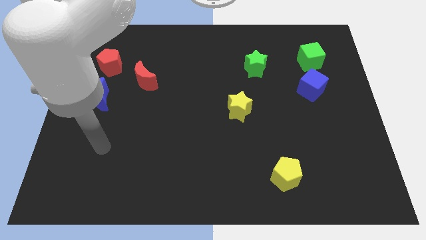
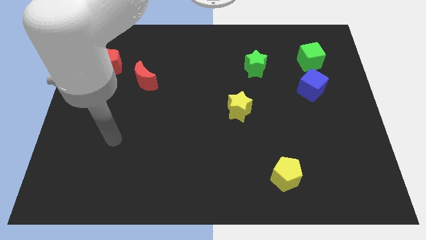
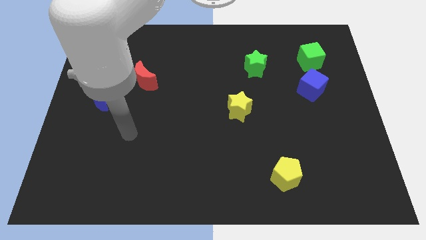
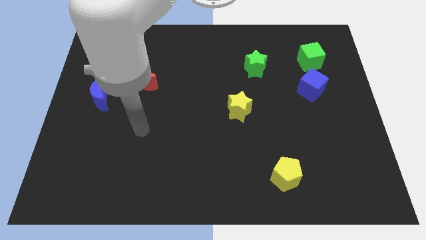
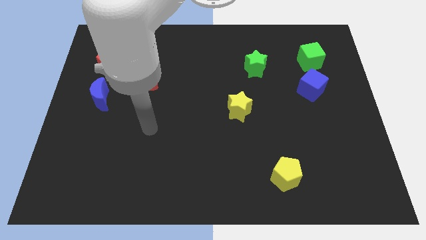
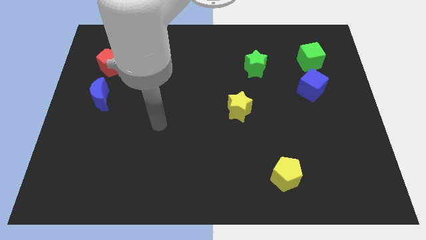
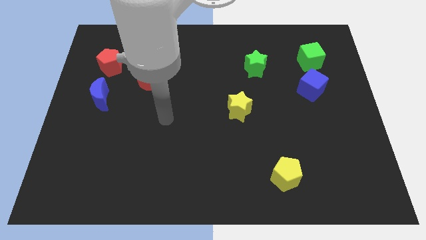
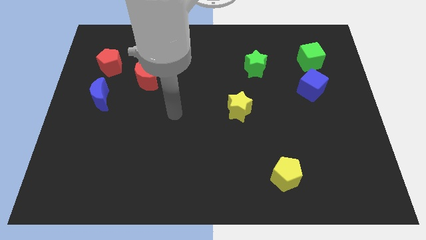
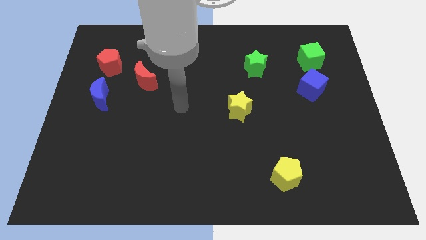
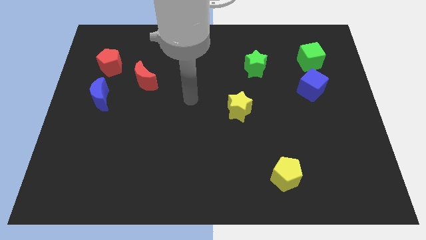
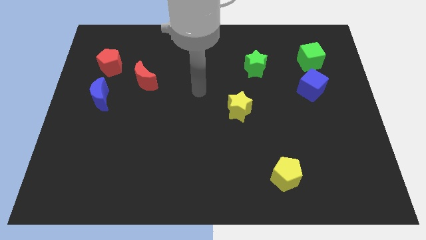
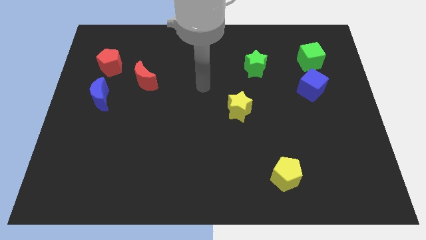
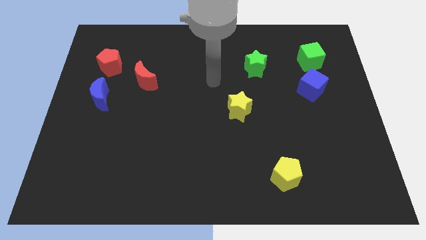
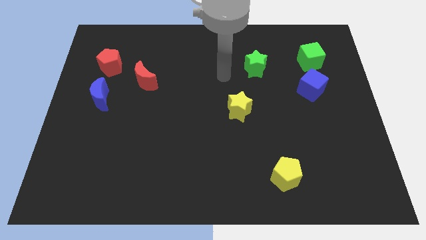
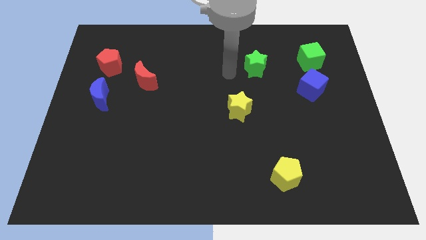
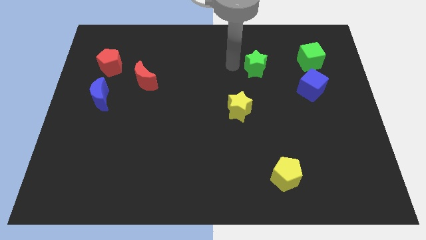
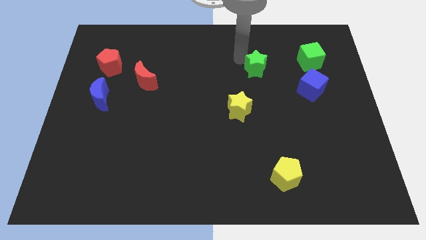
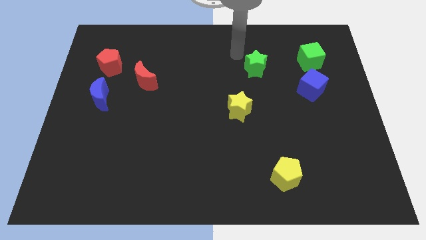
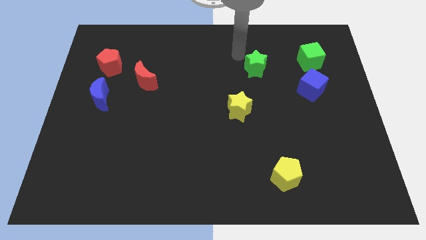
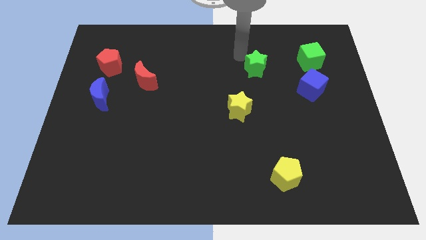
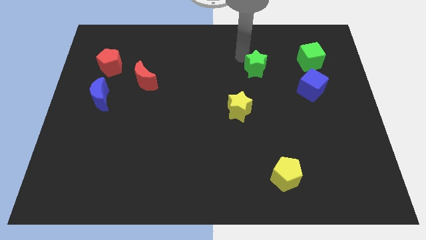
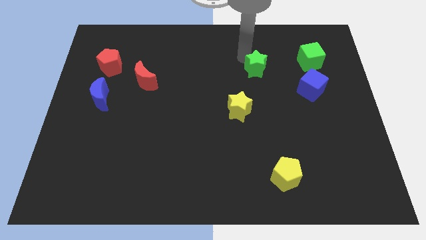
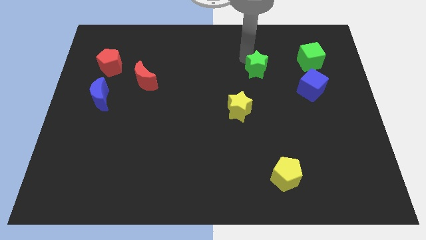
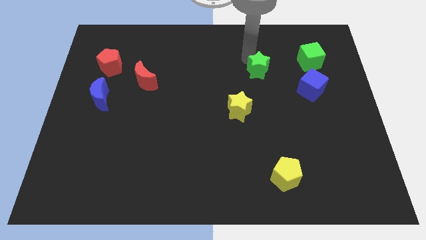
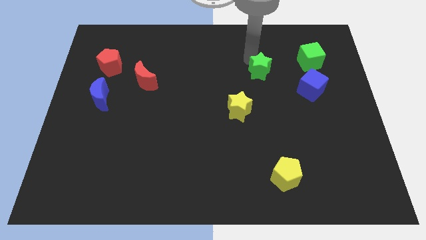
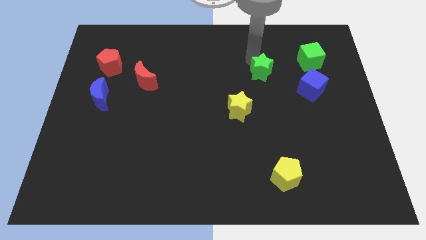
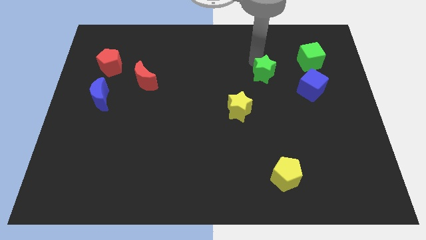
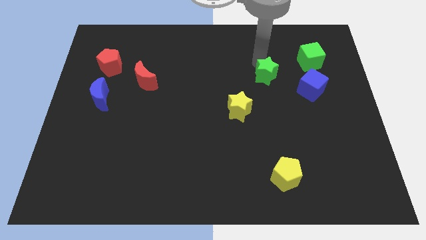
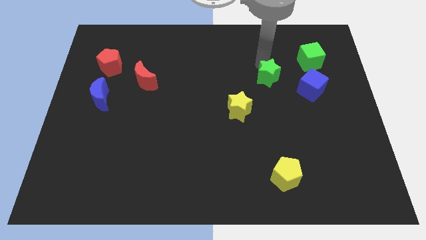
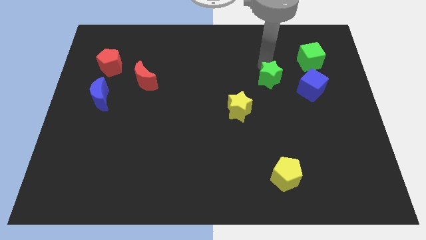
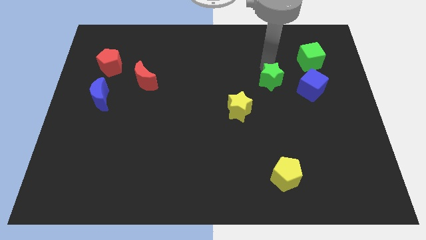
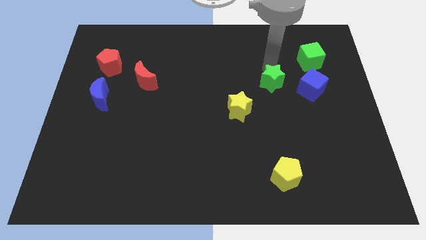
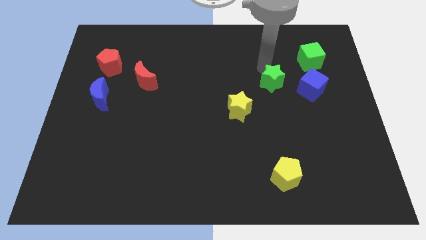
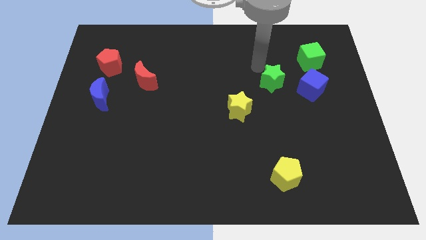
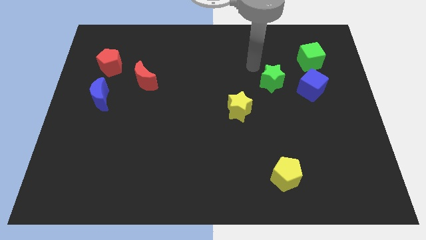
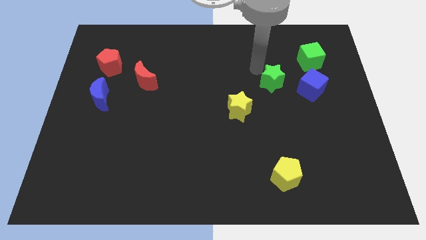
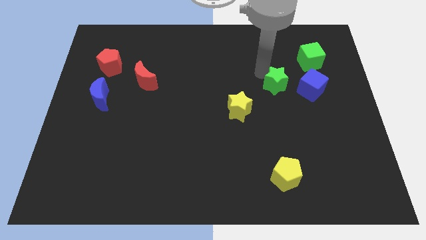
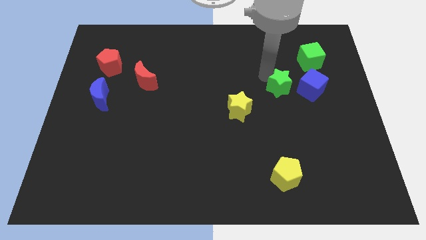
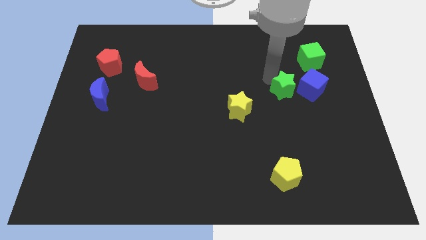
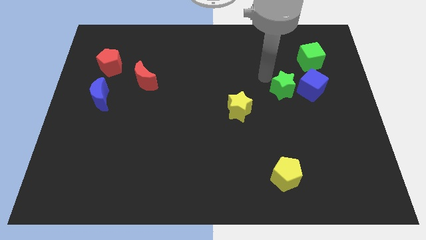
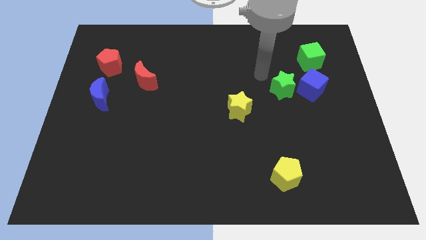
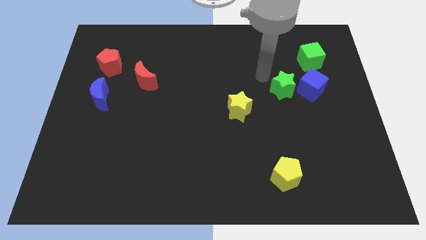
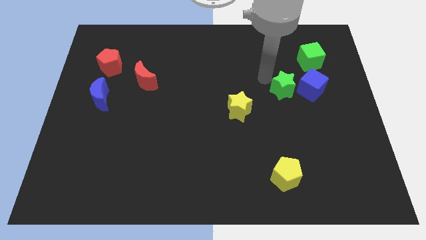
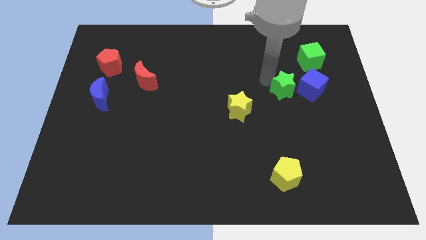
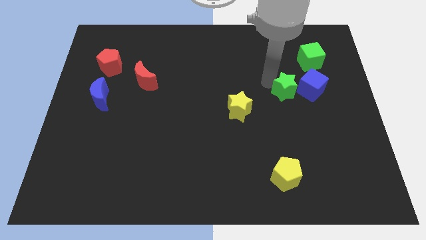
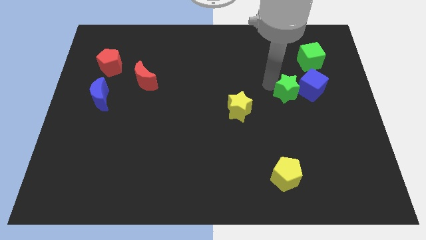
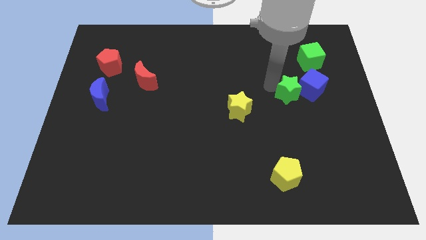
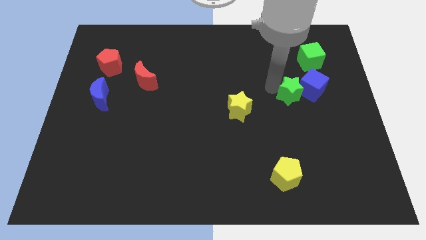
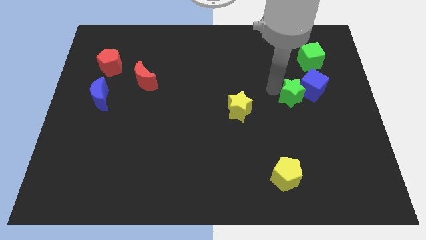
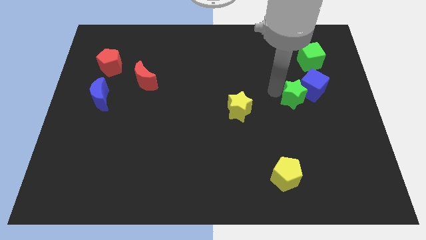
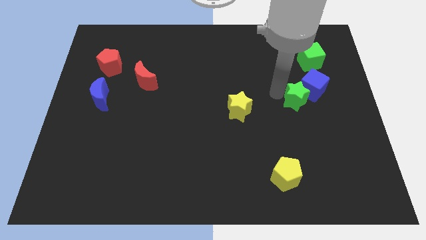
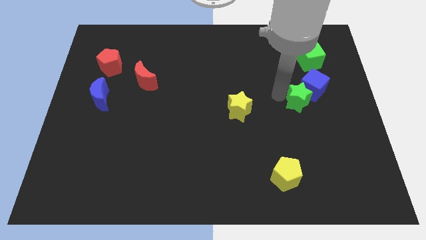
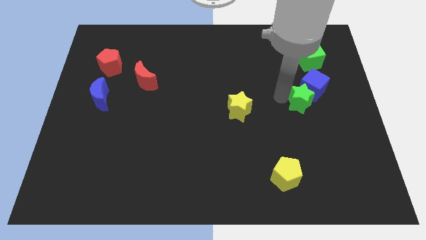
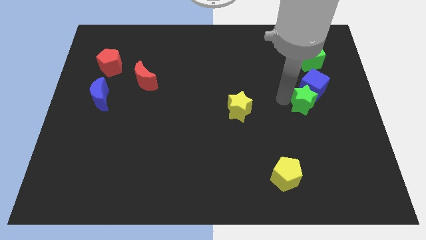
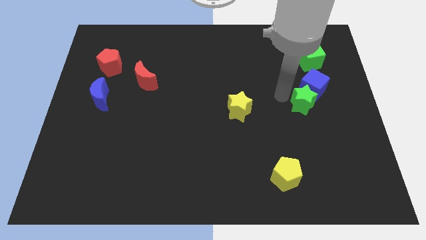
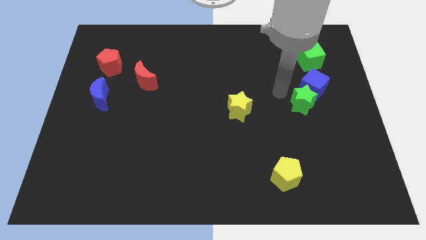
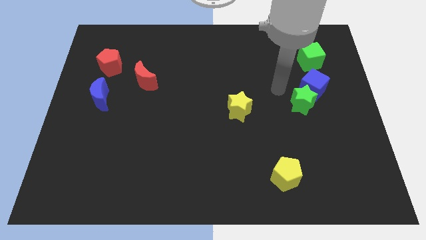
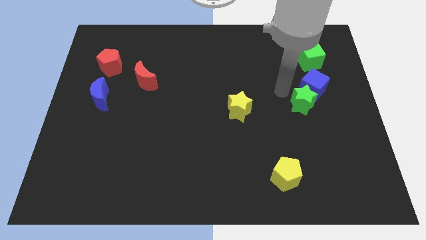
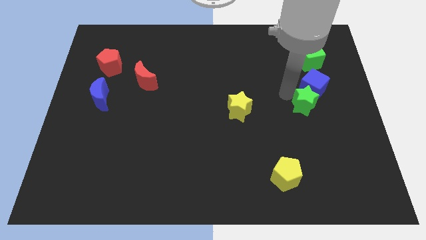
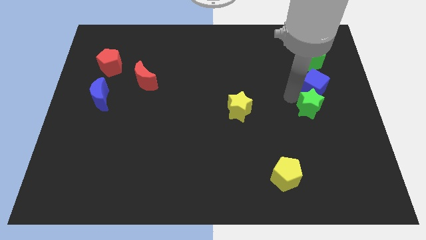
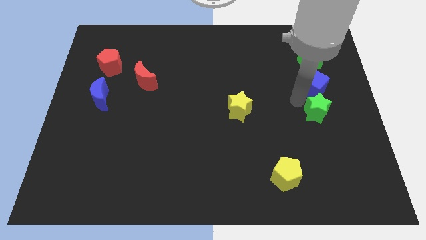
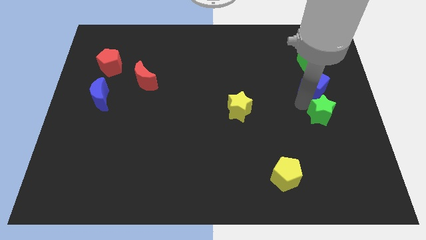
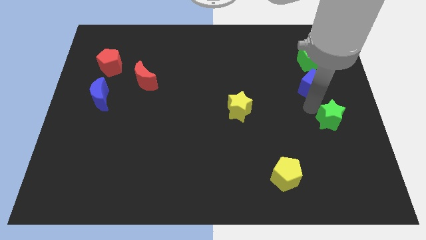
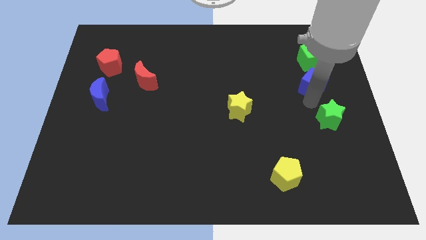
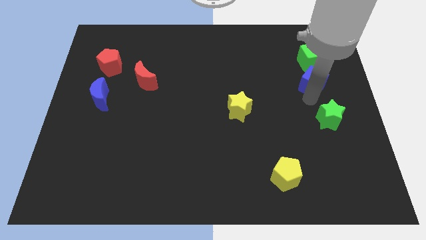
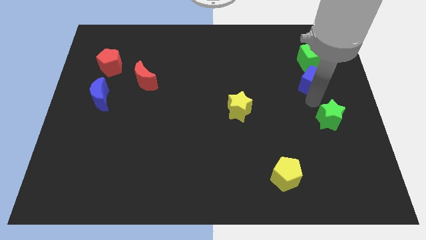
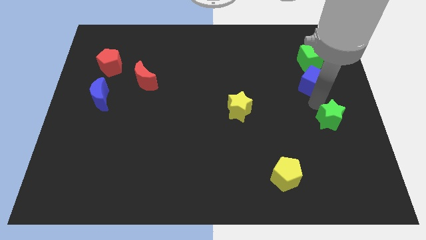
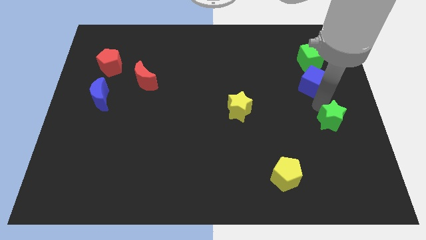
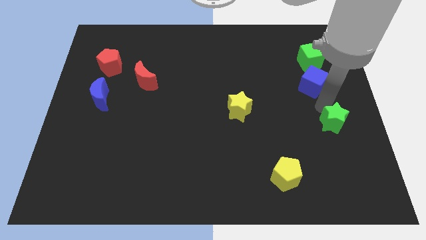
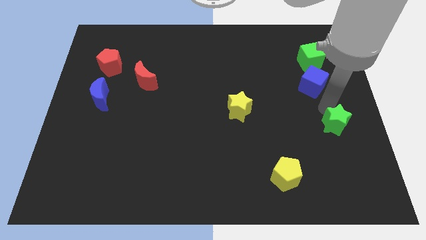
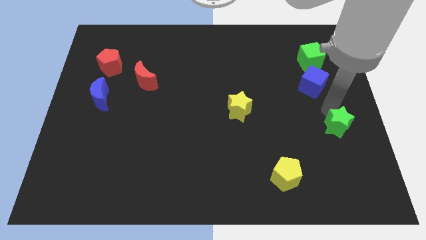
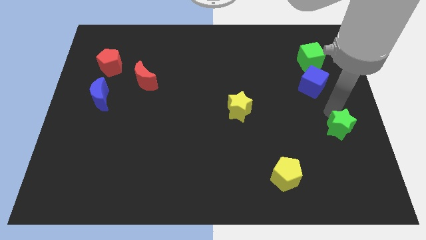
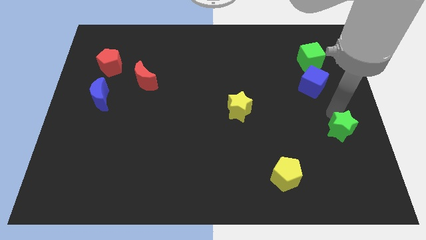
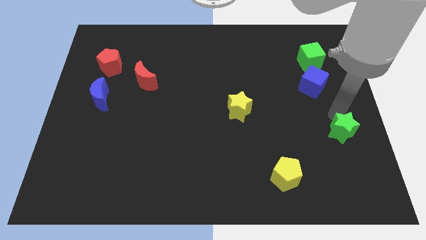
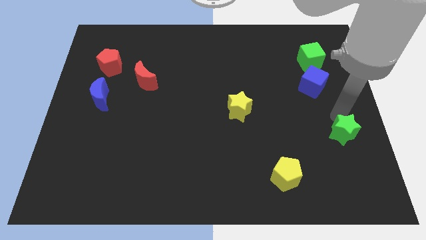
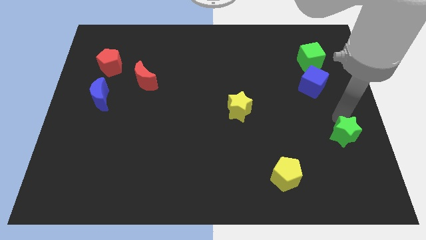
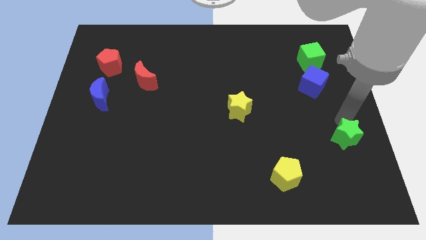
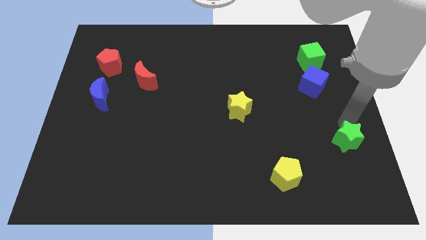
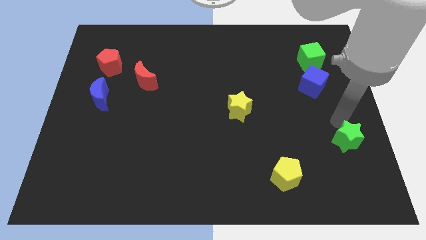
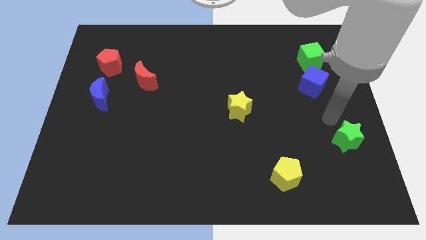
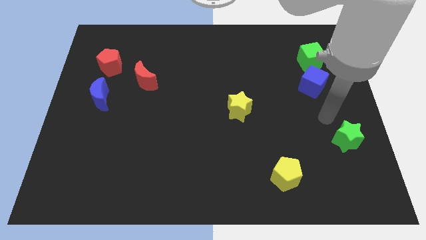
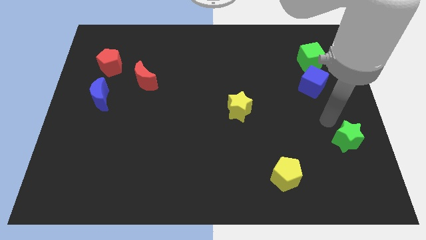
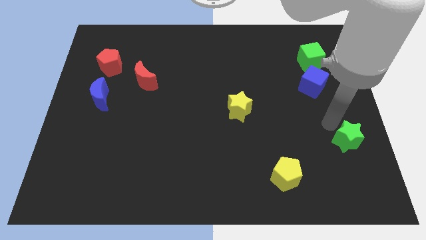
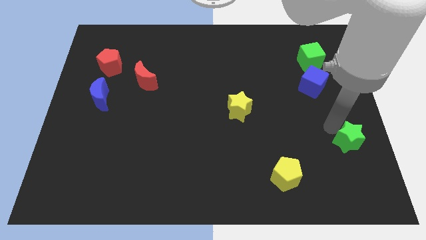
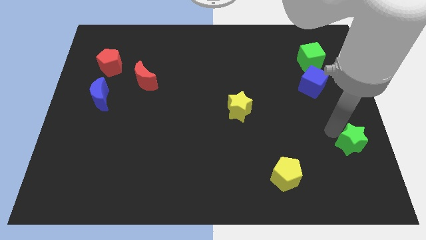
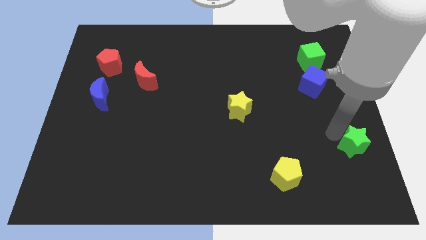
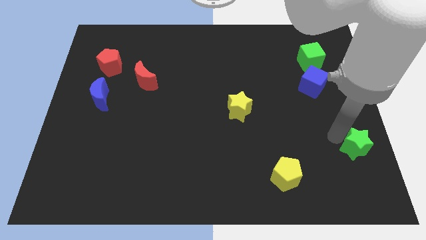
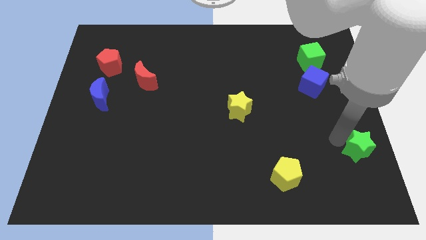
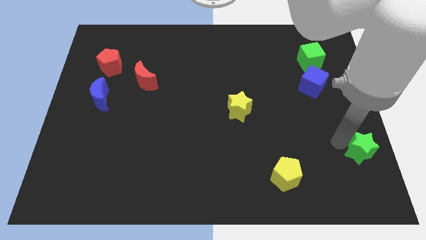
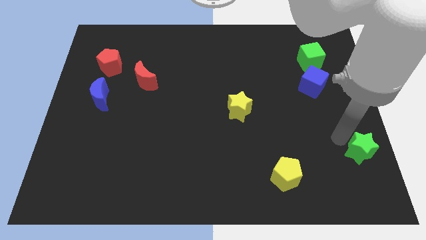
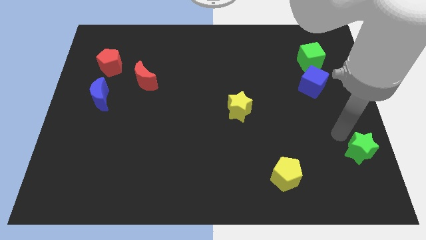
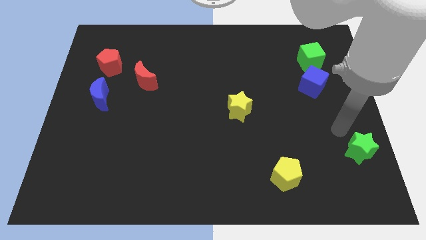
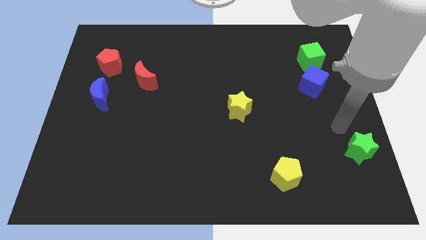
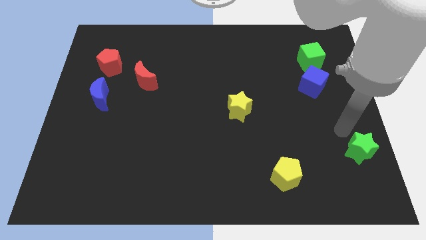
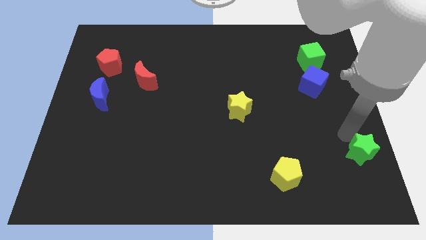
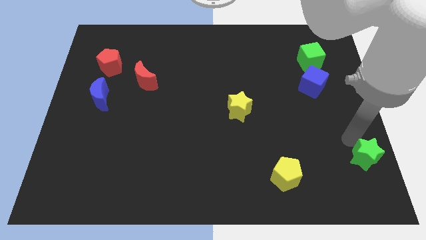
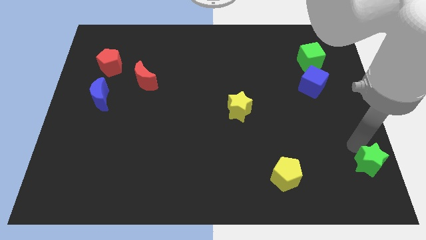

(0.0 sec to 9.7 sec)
put the green star to the bottom right corner
